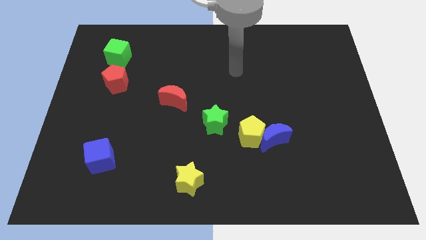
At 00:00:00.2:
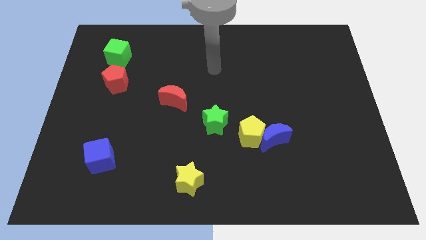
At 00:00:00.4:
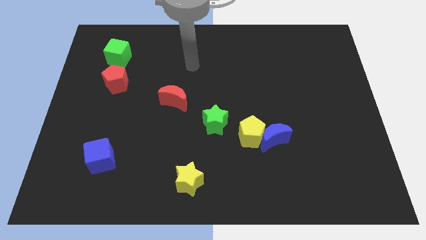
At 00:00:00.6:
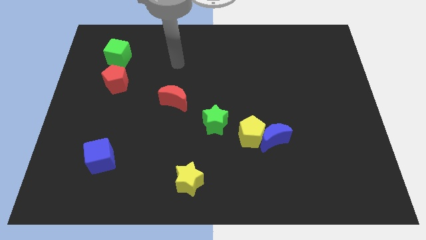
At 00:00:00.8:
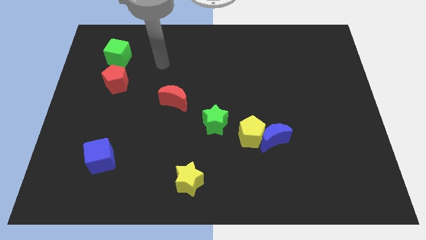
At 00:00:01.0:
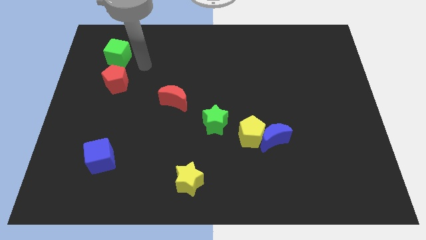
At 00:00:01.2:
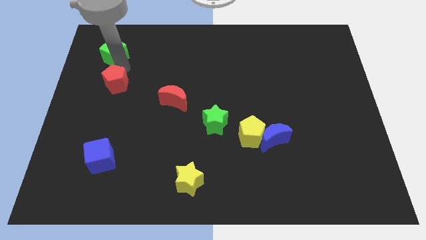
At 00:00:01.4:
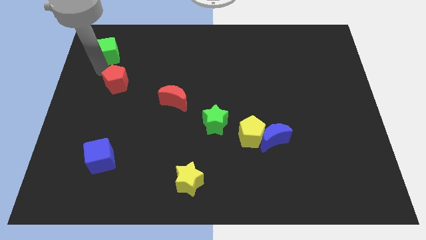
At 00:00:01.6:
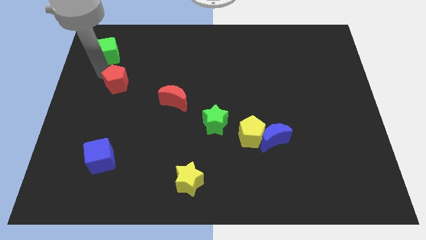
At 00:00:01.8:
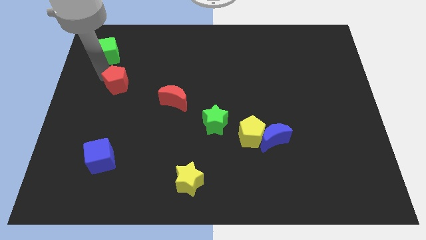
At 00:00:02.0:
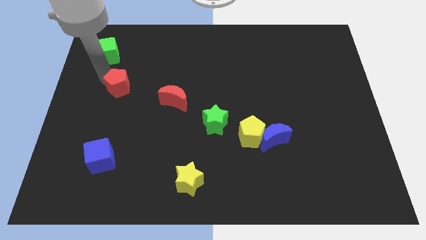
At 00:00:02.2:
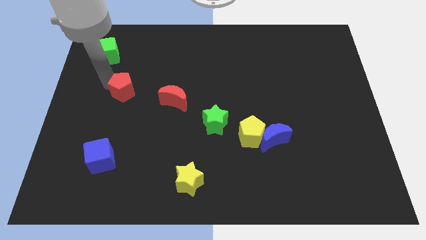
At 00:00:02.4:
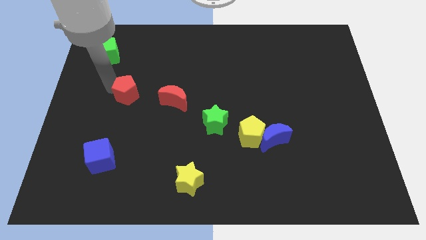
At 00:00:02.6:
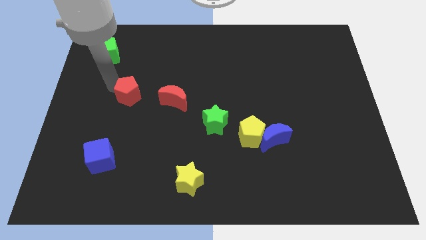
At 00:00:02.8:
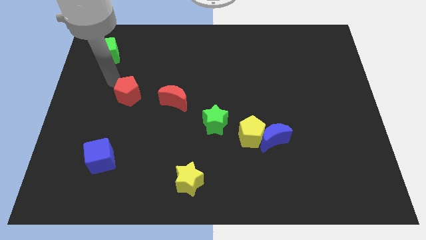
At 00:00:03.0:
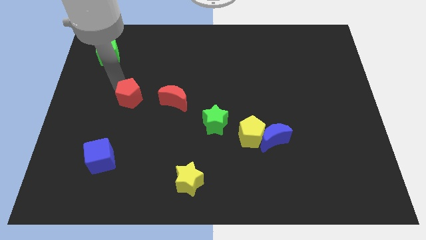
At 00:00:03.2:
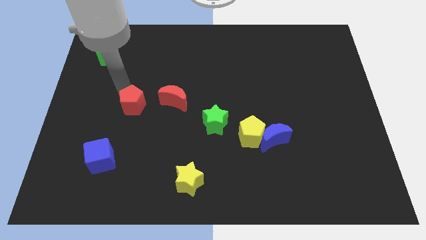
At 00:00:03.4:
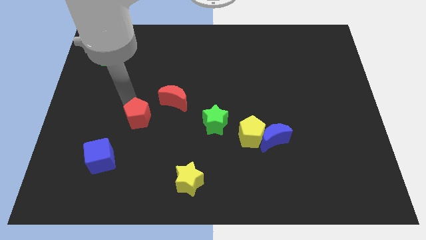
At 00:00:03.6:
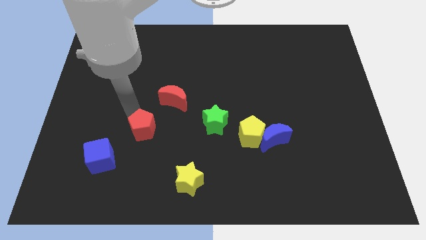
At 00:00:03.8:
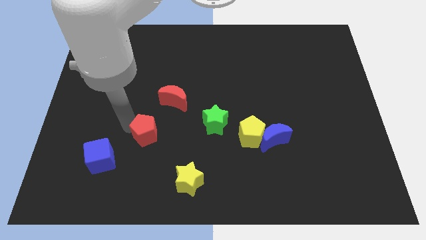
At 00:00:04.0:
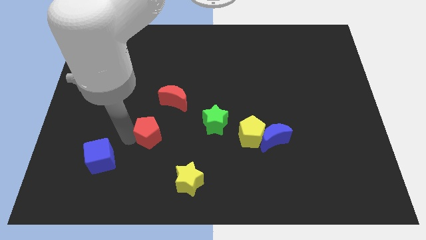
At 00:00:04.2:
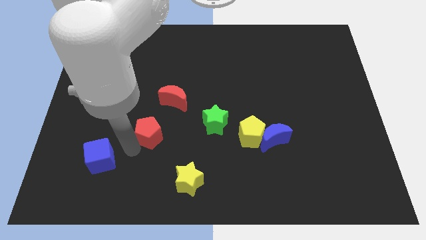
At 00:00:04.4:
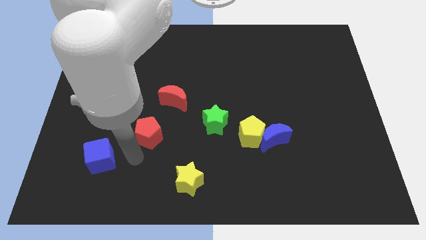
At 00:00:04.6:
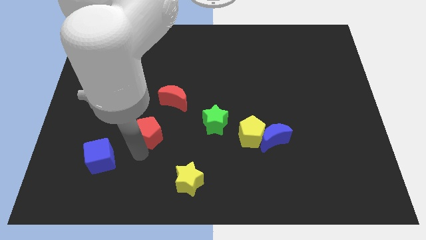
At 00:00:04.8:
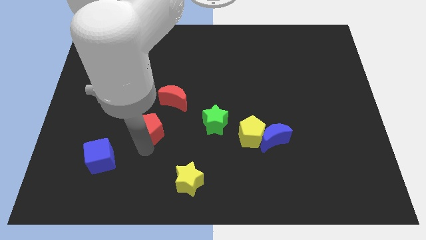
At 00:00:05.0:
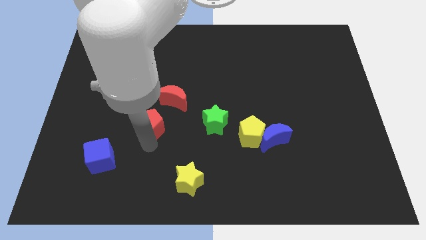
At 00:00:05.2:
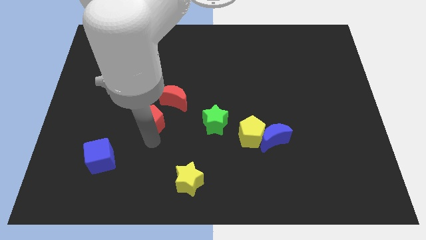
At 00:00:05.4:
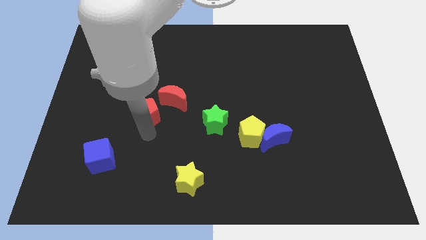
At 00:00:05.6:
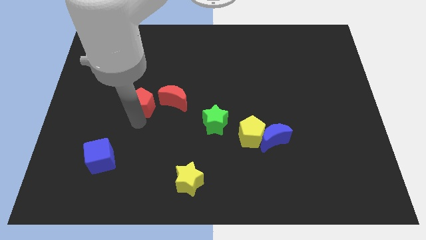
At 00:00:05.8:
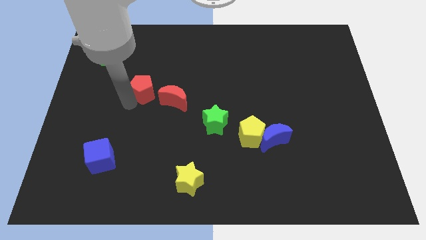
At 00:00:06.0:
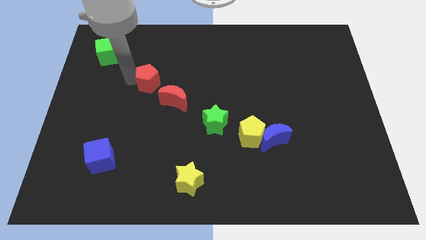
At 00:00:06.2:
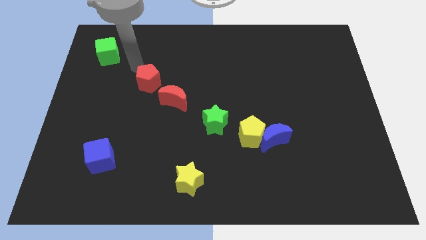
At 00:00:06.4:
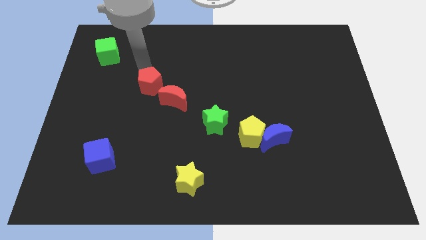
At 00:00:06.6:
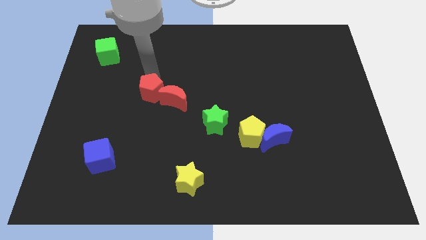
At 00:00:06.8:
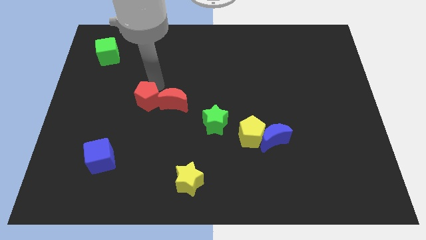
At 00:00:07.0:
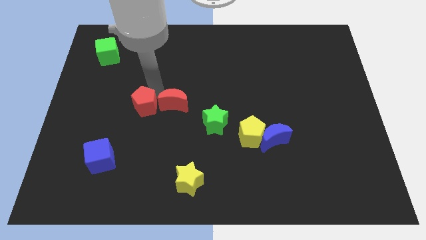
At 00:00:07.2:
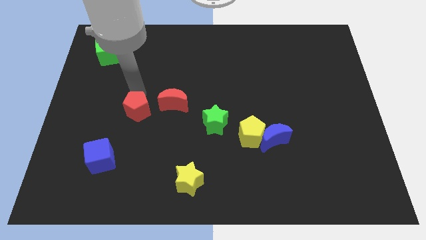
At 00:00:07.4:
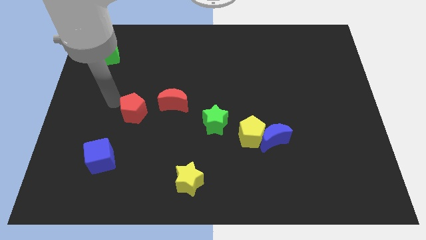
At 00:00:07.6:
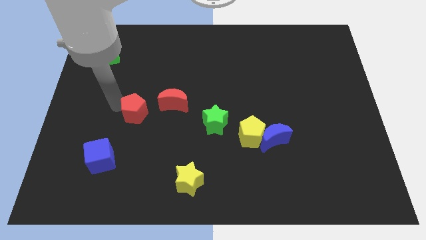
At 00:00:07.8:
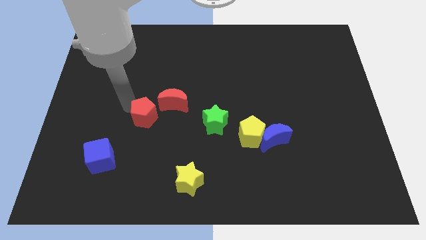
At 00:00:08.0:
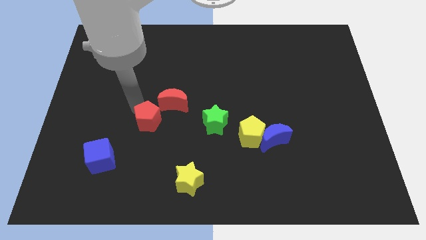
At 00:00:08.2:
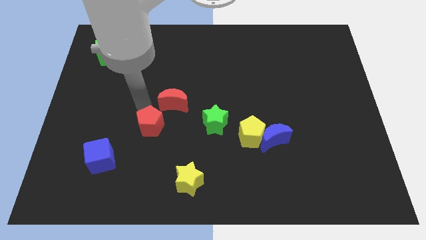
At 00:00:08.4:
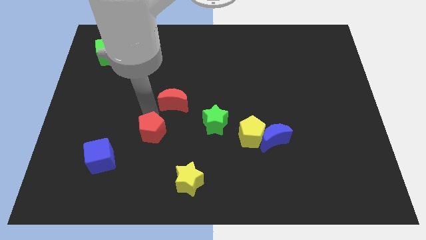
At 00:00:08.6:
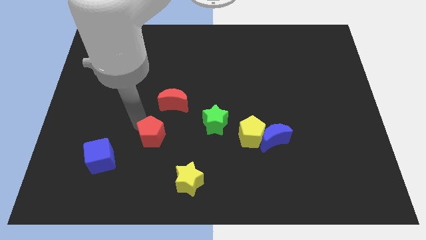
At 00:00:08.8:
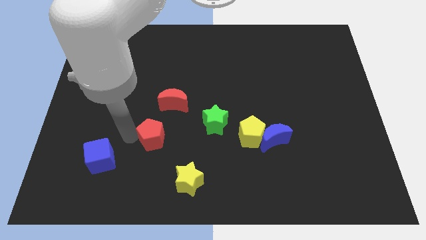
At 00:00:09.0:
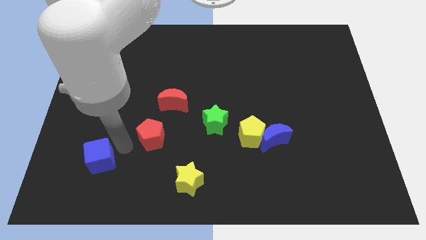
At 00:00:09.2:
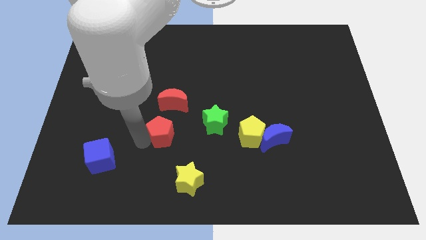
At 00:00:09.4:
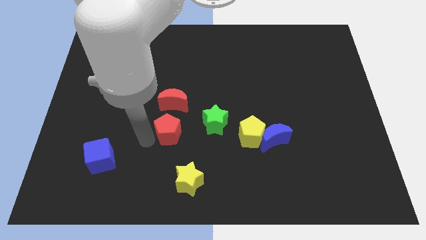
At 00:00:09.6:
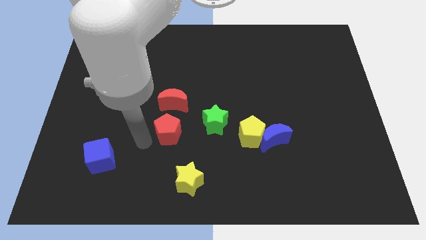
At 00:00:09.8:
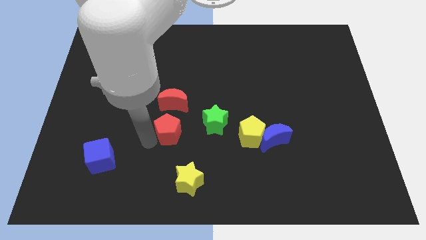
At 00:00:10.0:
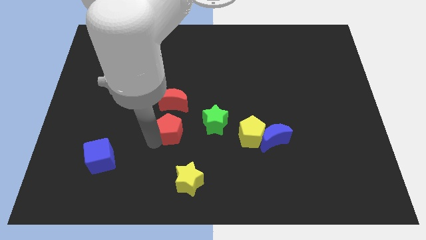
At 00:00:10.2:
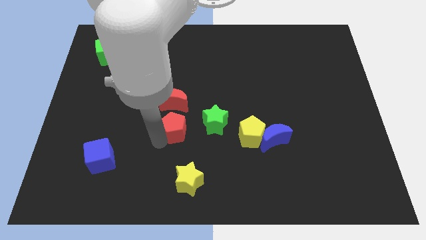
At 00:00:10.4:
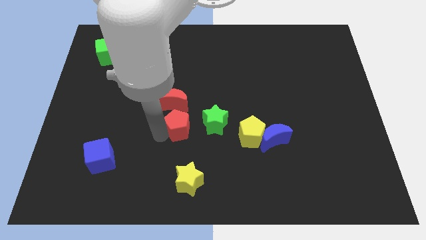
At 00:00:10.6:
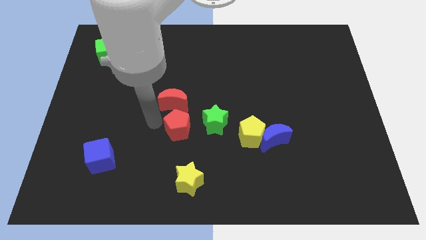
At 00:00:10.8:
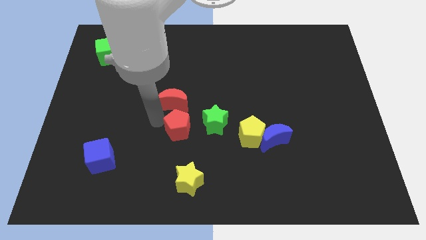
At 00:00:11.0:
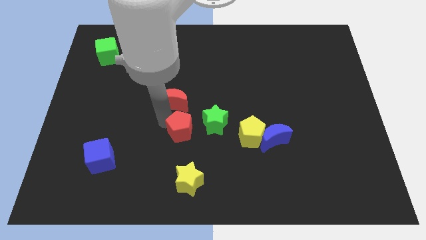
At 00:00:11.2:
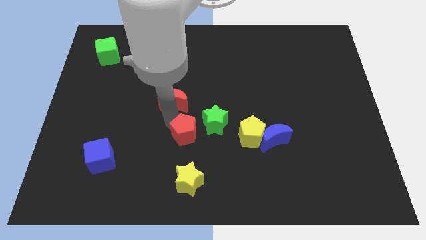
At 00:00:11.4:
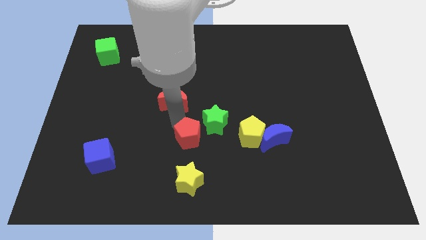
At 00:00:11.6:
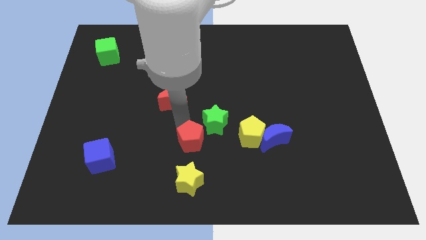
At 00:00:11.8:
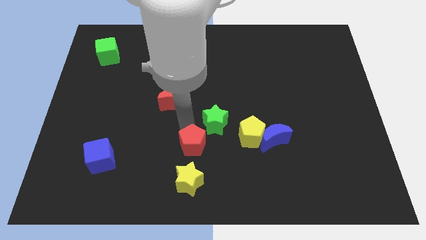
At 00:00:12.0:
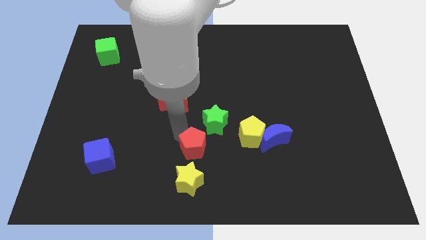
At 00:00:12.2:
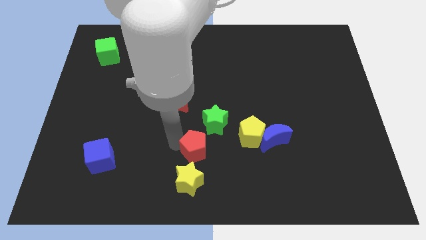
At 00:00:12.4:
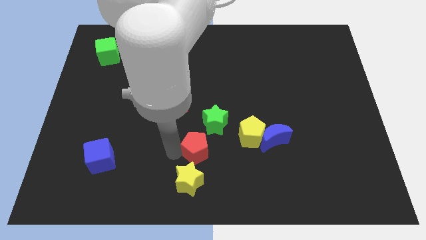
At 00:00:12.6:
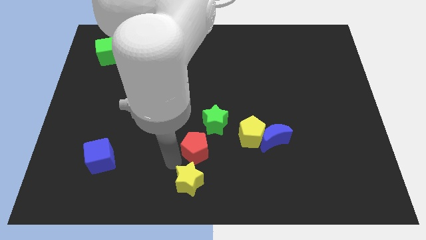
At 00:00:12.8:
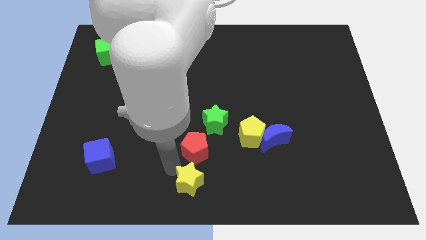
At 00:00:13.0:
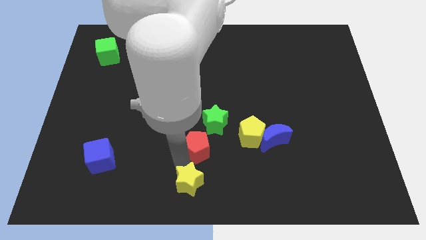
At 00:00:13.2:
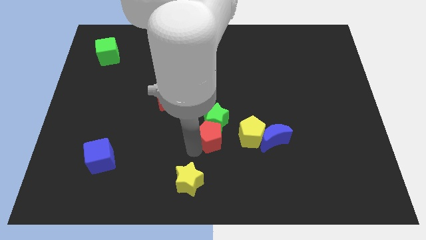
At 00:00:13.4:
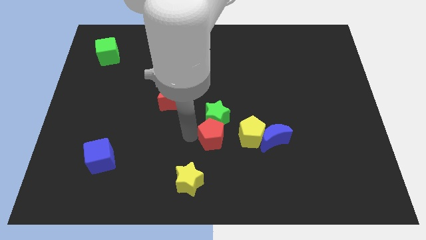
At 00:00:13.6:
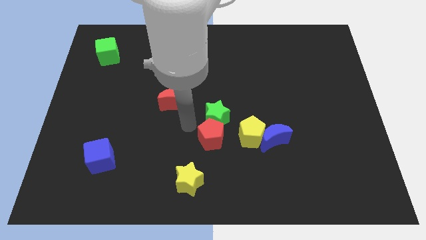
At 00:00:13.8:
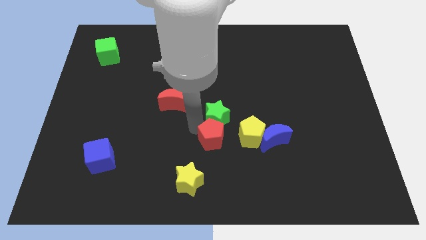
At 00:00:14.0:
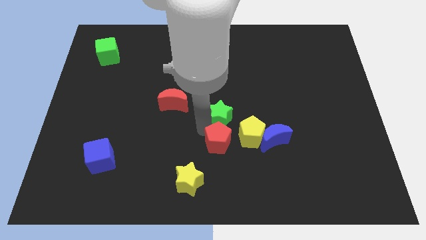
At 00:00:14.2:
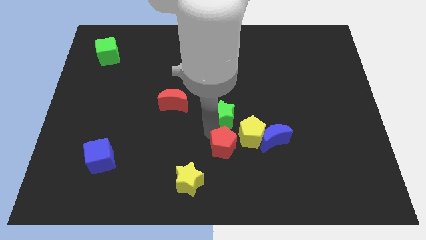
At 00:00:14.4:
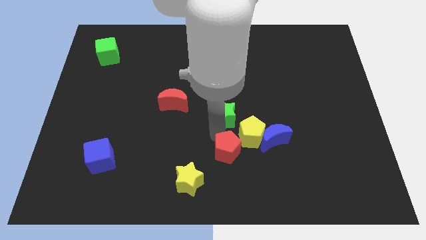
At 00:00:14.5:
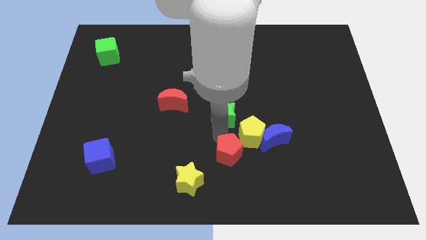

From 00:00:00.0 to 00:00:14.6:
move the red pentagon to the bottom left side of the blue moon

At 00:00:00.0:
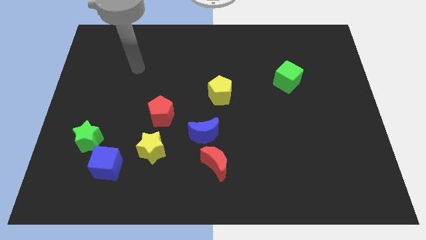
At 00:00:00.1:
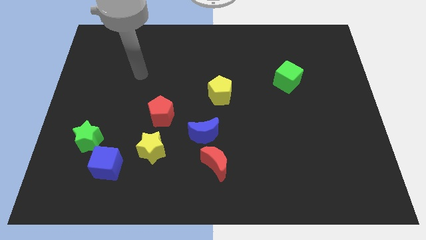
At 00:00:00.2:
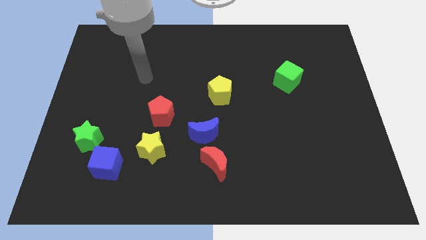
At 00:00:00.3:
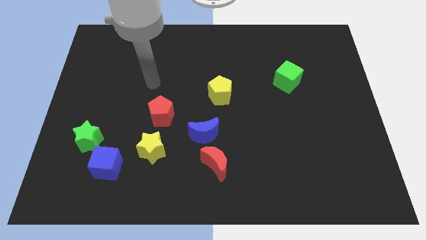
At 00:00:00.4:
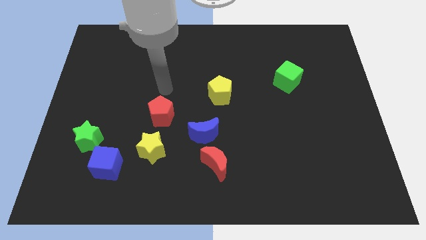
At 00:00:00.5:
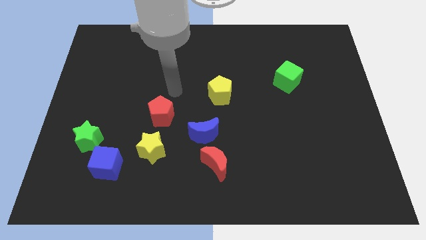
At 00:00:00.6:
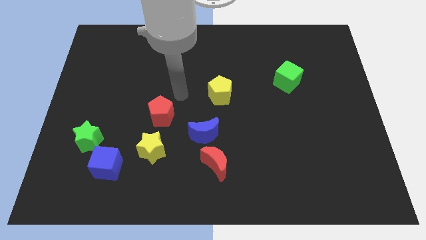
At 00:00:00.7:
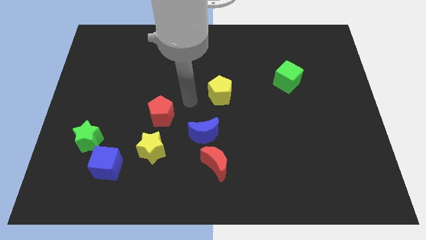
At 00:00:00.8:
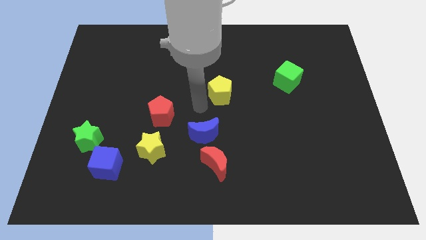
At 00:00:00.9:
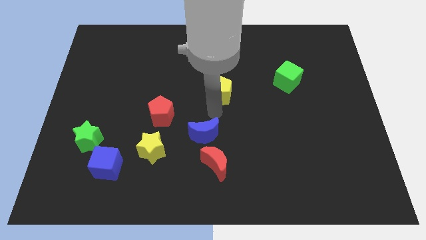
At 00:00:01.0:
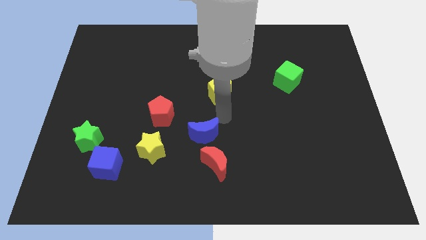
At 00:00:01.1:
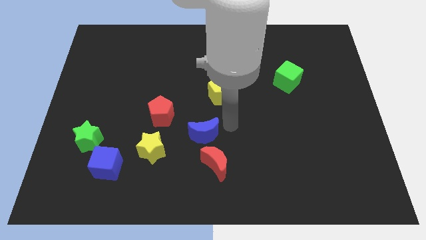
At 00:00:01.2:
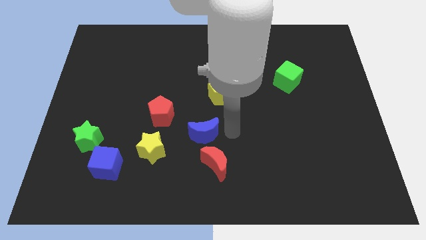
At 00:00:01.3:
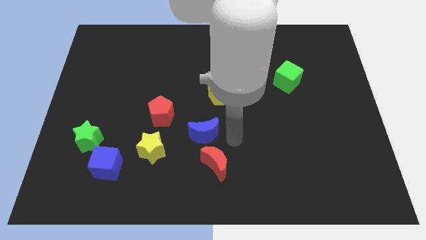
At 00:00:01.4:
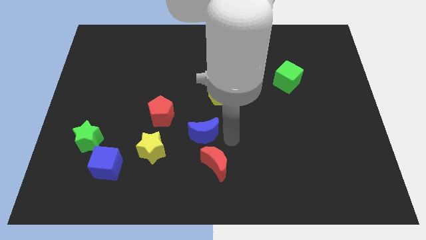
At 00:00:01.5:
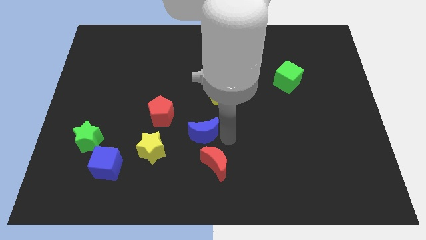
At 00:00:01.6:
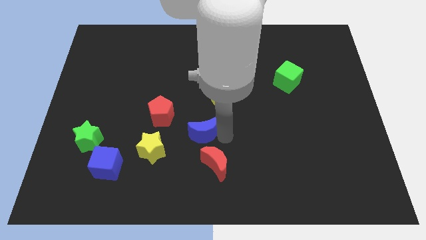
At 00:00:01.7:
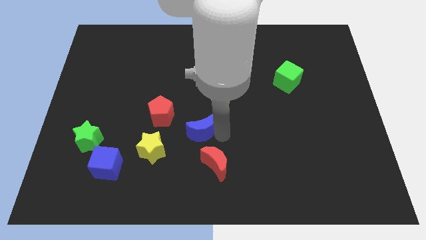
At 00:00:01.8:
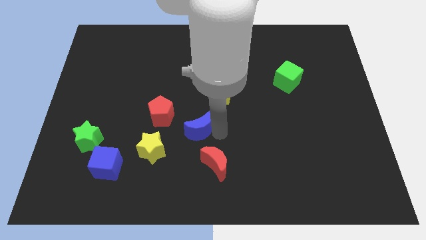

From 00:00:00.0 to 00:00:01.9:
slide the blue moon to the top right side of the yellow star
